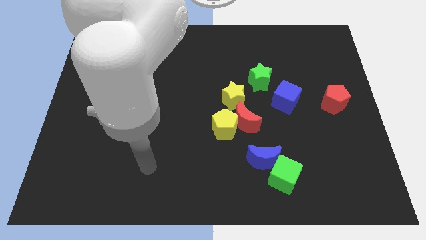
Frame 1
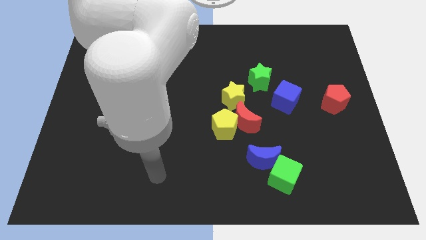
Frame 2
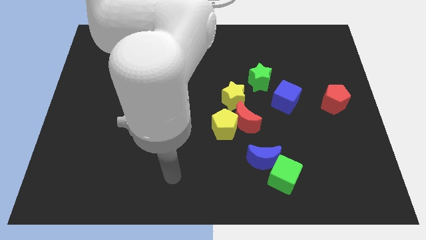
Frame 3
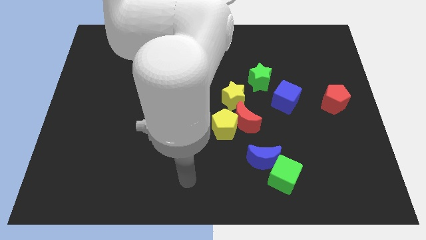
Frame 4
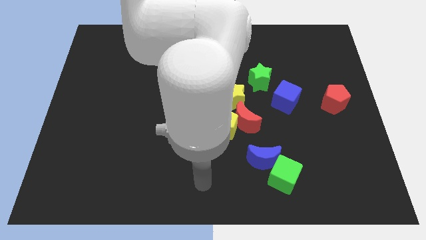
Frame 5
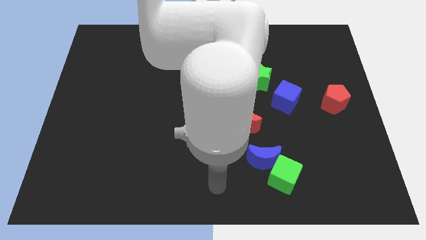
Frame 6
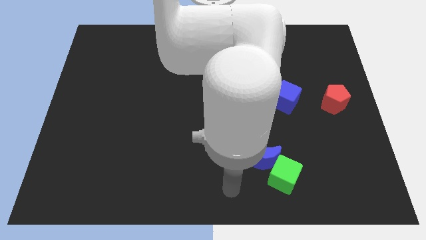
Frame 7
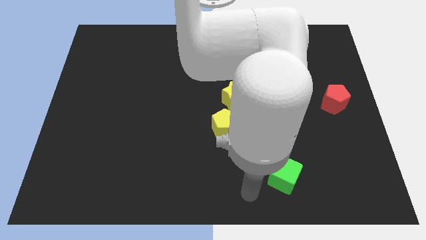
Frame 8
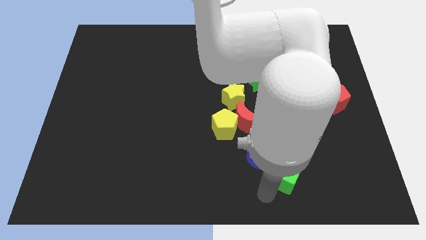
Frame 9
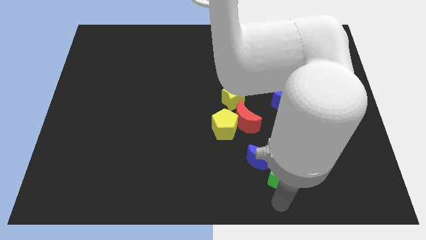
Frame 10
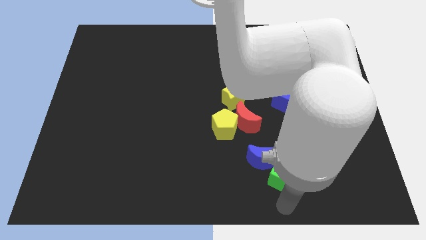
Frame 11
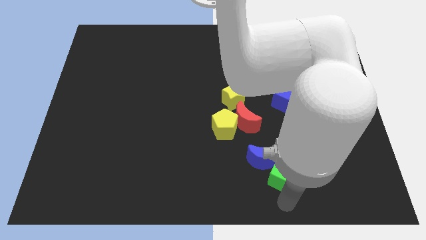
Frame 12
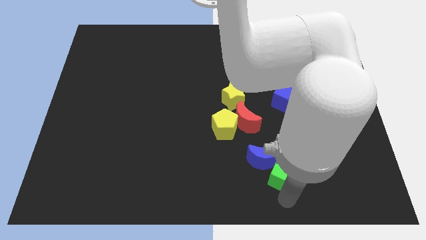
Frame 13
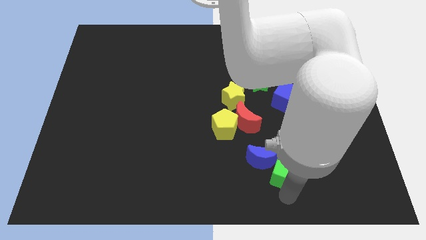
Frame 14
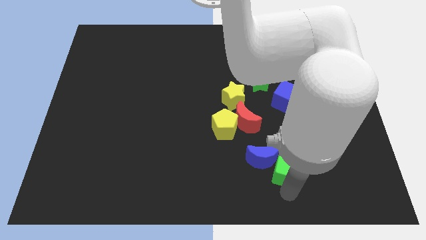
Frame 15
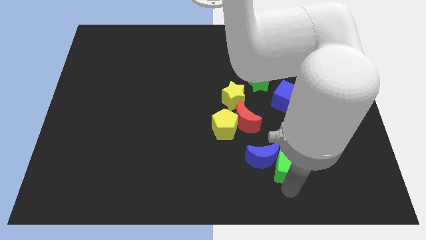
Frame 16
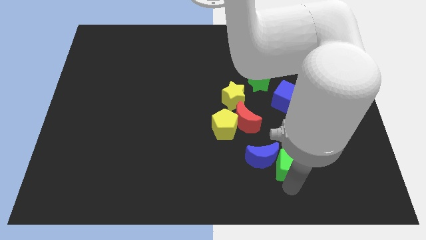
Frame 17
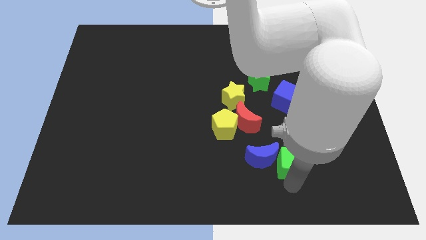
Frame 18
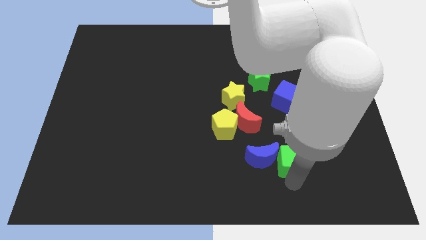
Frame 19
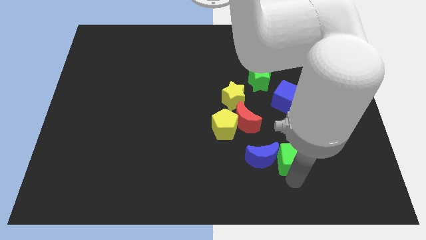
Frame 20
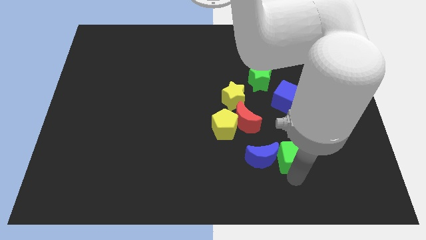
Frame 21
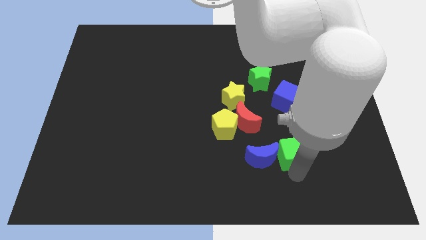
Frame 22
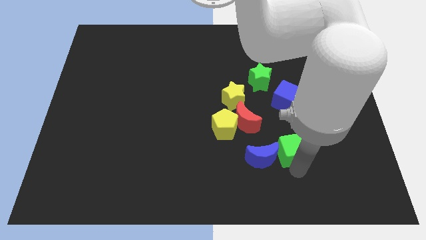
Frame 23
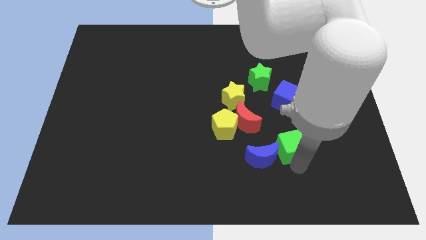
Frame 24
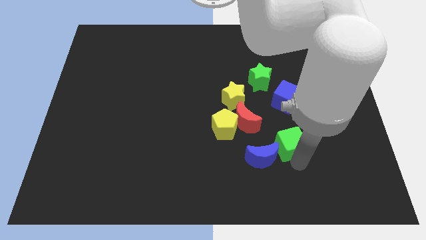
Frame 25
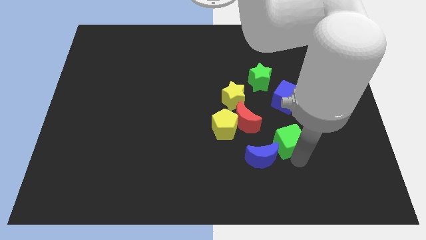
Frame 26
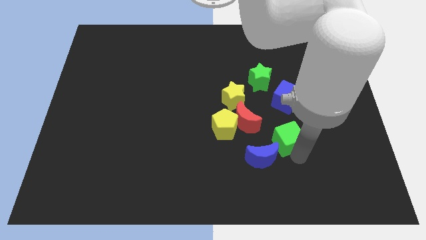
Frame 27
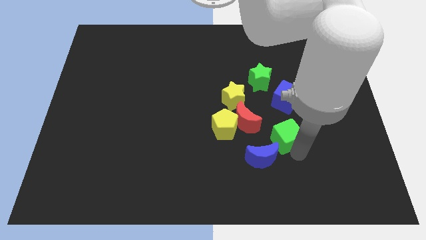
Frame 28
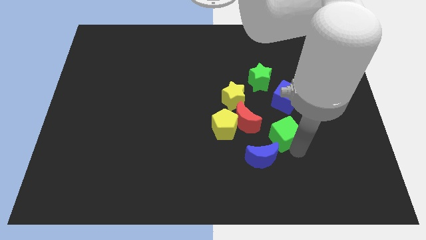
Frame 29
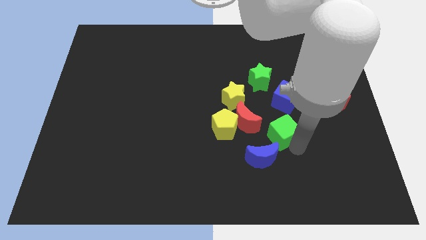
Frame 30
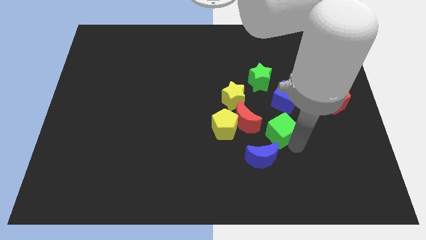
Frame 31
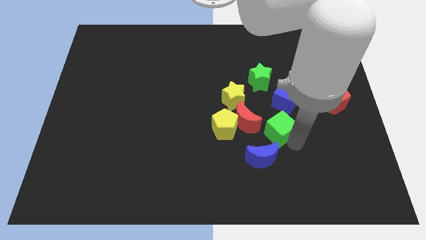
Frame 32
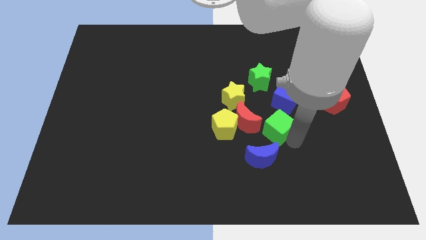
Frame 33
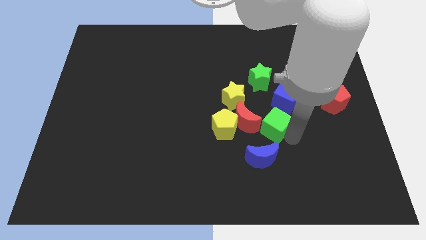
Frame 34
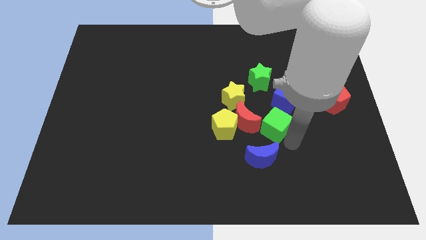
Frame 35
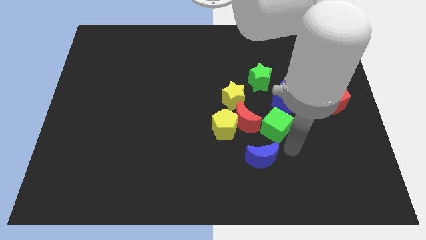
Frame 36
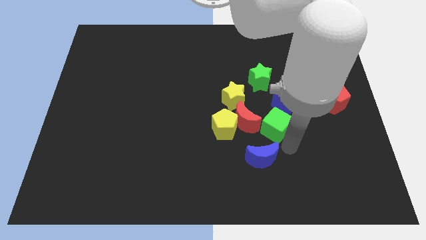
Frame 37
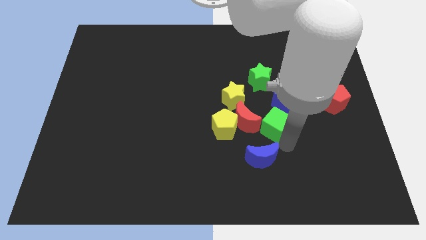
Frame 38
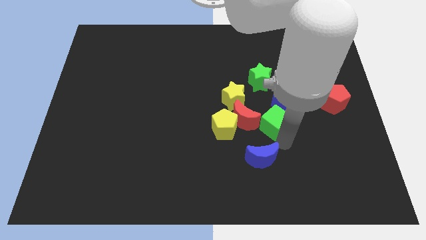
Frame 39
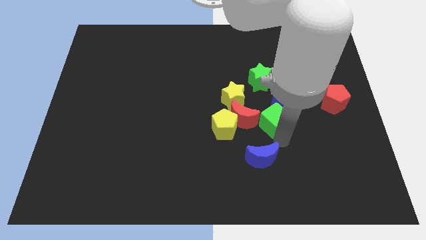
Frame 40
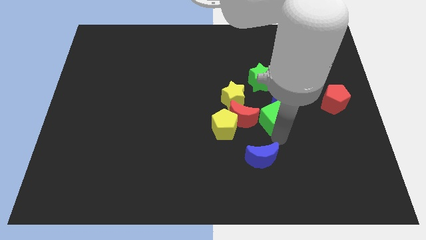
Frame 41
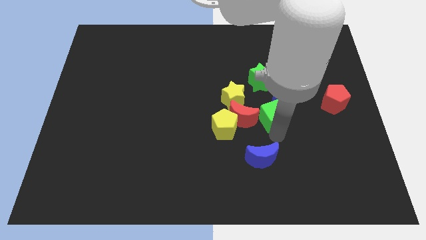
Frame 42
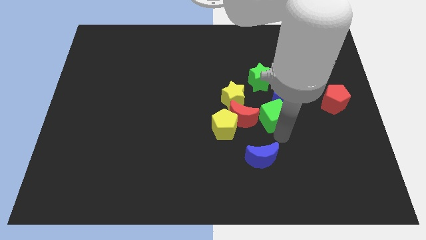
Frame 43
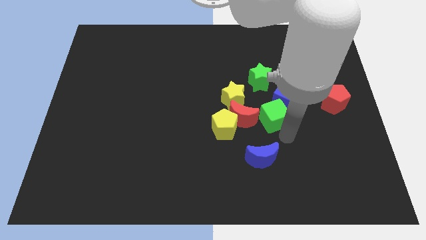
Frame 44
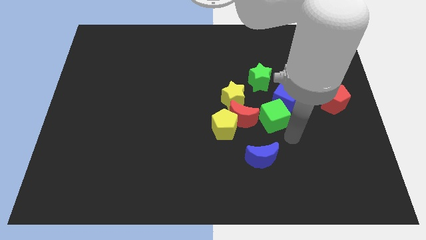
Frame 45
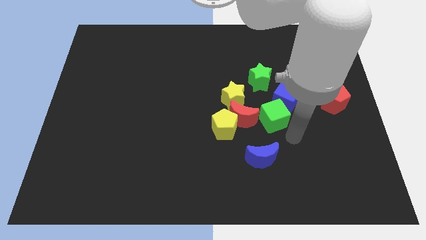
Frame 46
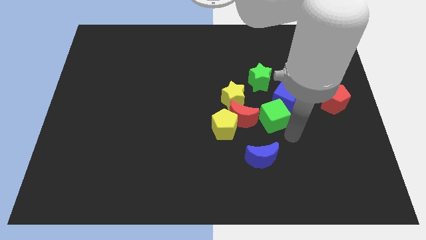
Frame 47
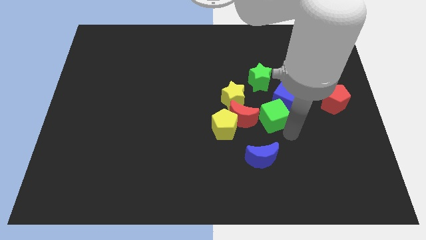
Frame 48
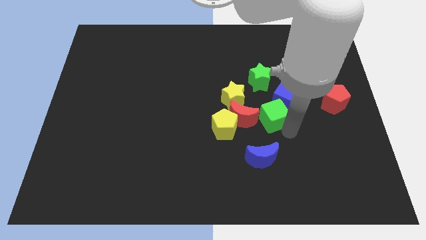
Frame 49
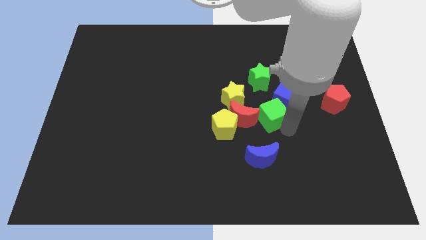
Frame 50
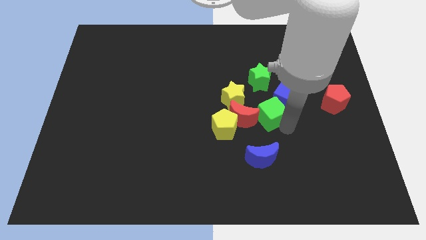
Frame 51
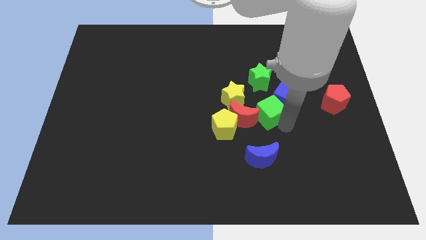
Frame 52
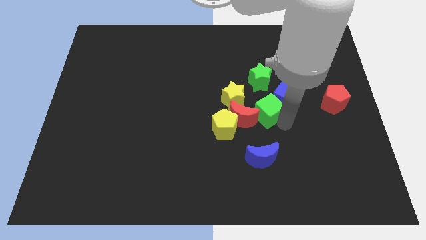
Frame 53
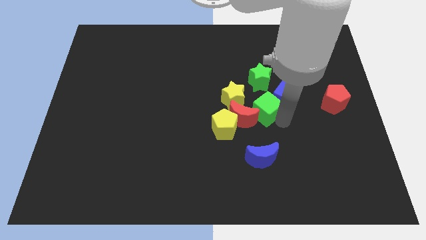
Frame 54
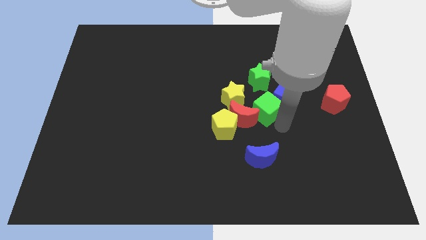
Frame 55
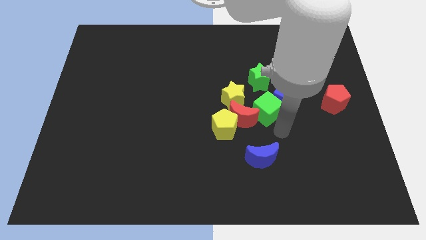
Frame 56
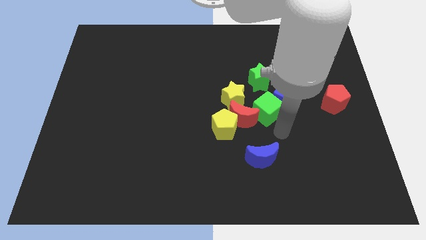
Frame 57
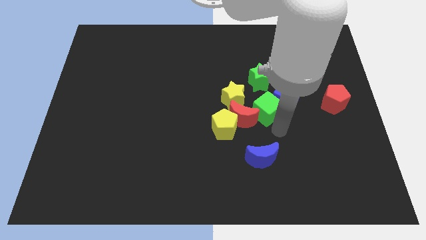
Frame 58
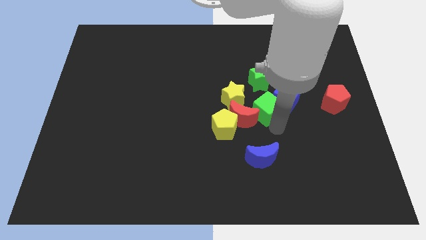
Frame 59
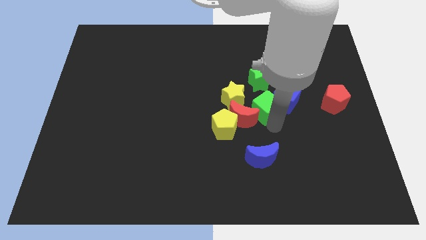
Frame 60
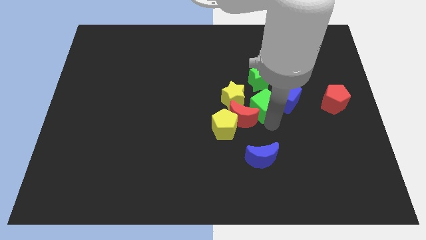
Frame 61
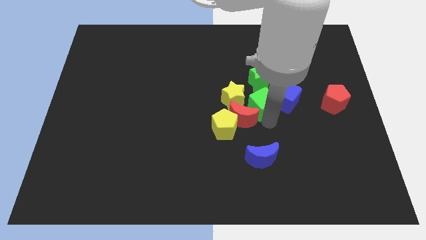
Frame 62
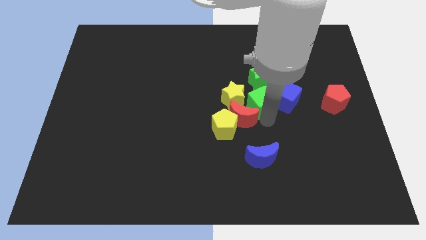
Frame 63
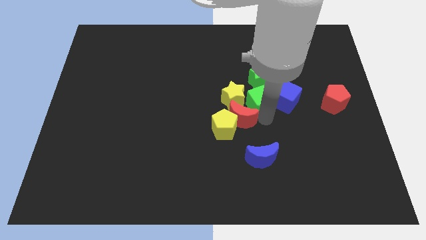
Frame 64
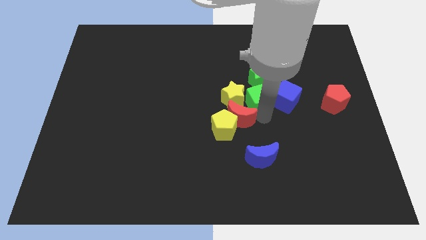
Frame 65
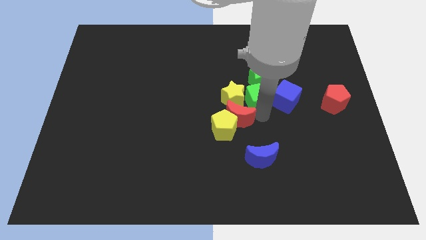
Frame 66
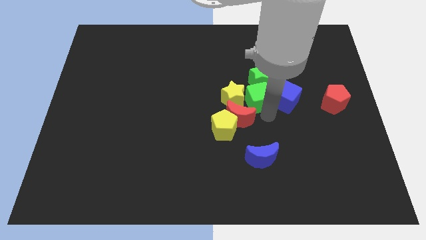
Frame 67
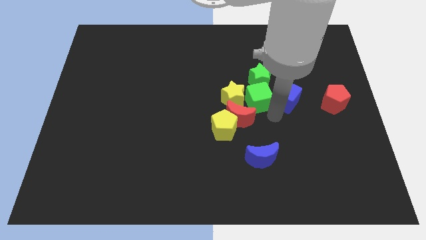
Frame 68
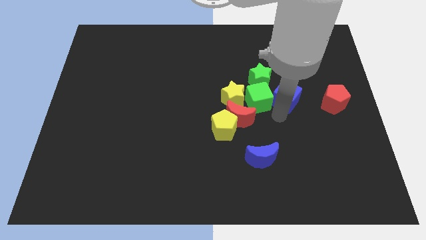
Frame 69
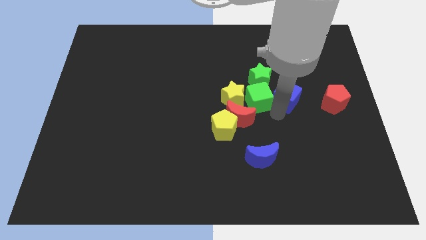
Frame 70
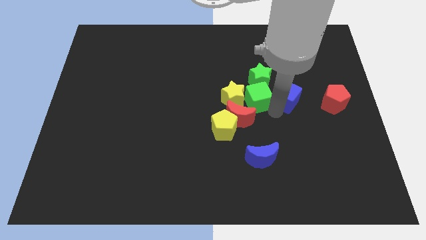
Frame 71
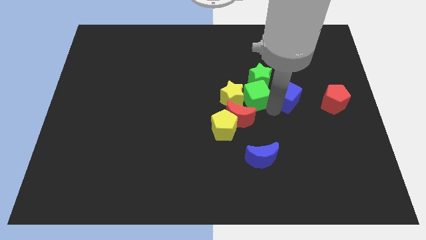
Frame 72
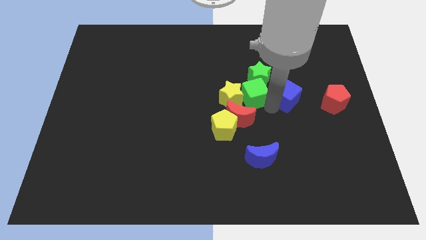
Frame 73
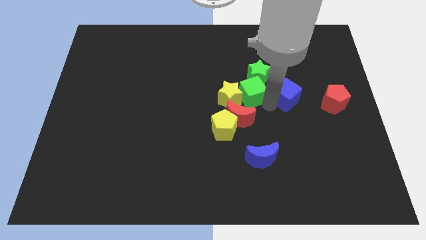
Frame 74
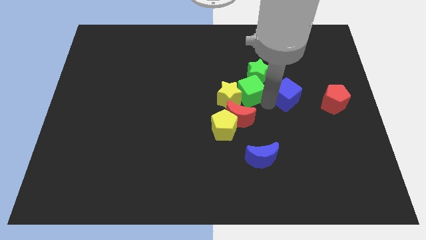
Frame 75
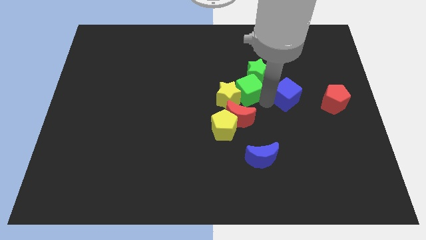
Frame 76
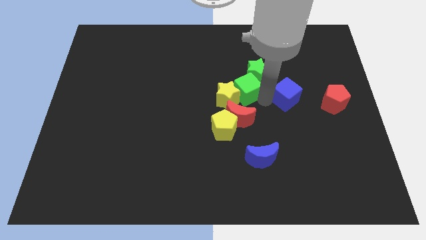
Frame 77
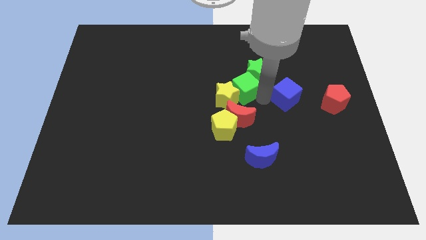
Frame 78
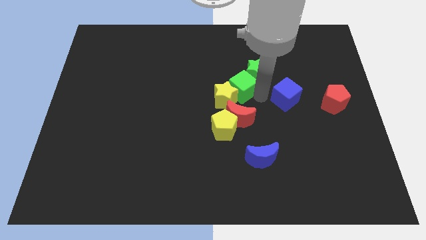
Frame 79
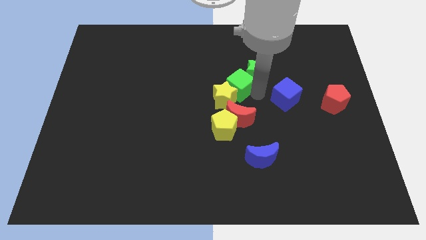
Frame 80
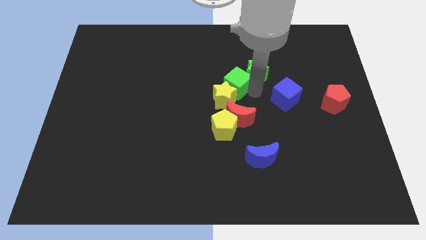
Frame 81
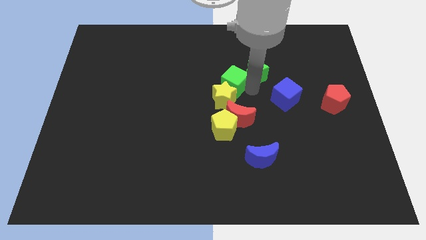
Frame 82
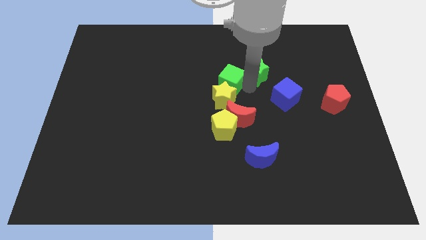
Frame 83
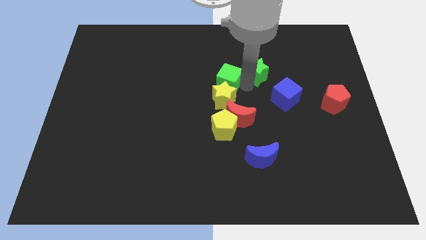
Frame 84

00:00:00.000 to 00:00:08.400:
put the green cube to the top left of the yellow star
